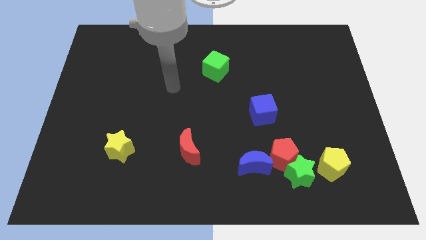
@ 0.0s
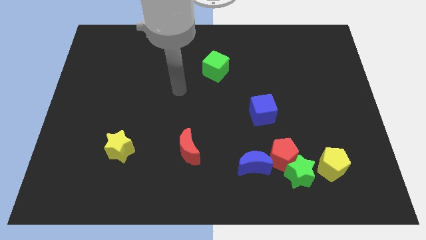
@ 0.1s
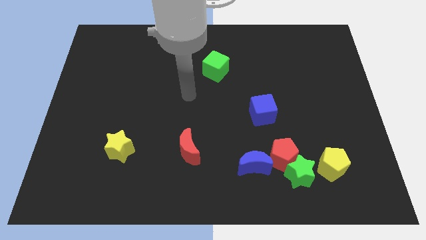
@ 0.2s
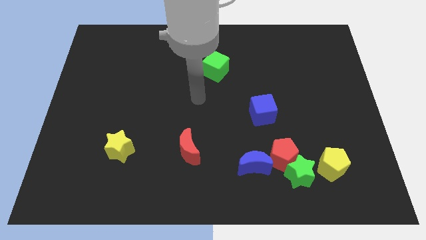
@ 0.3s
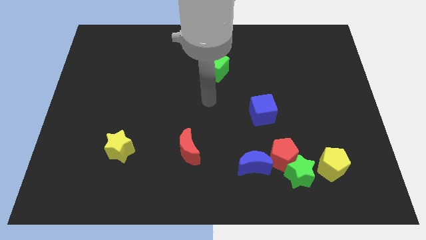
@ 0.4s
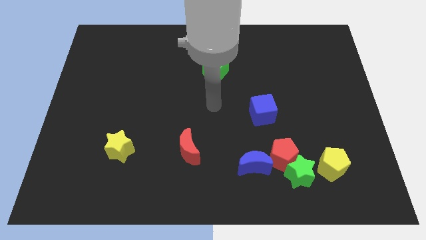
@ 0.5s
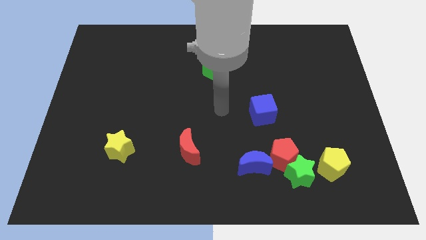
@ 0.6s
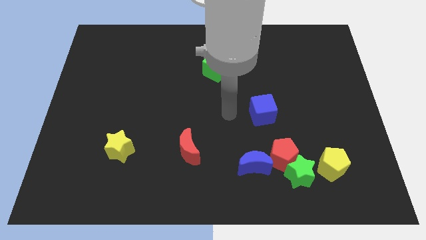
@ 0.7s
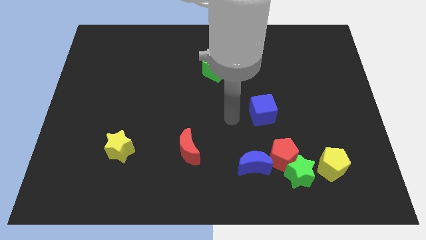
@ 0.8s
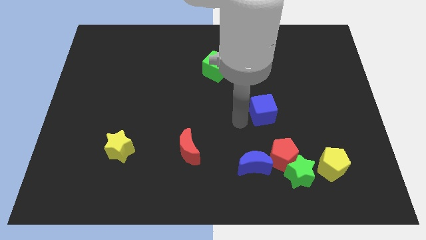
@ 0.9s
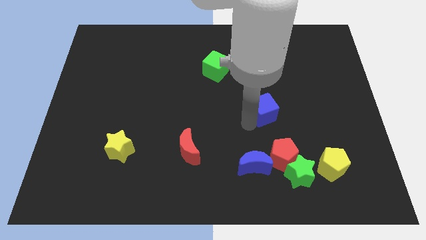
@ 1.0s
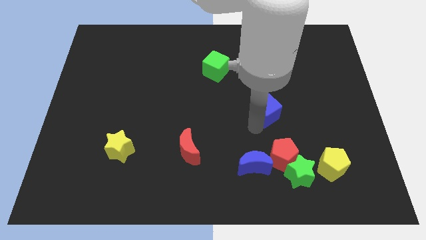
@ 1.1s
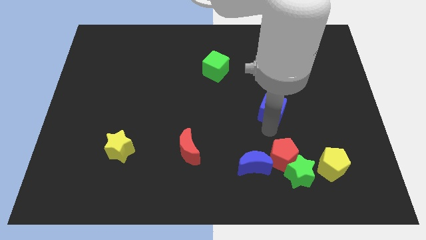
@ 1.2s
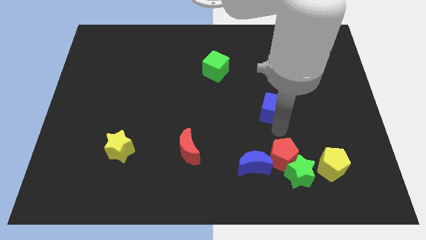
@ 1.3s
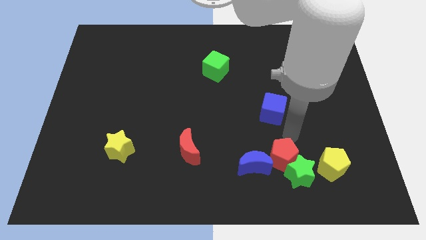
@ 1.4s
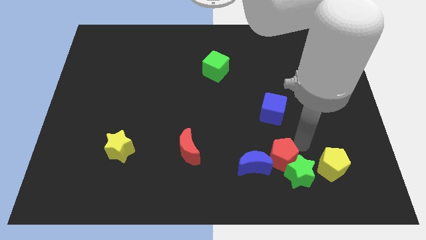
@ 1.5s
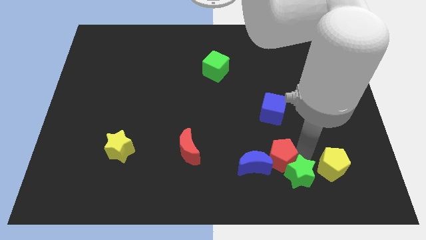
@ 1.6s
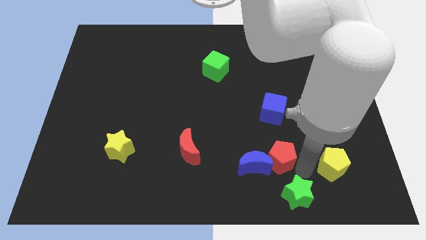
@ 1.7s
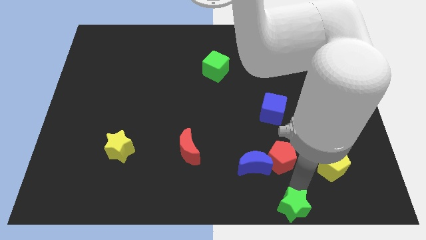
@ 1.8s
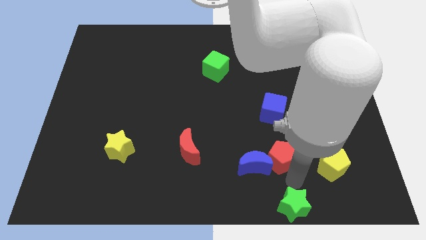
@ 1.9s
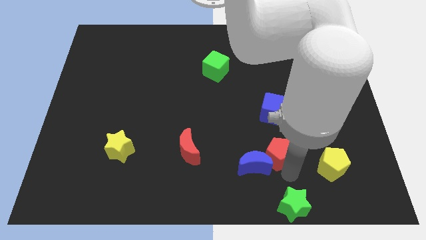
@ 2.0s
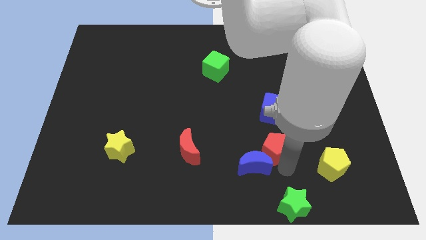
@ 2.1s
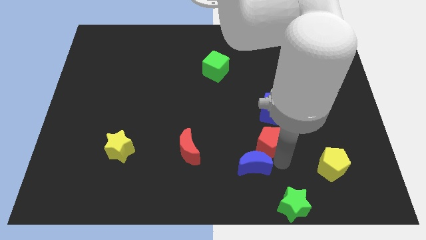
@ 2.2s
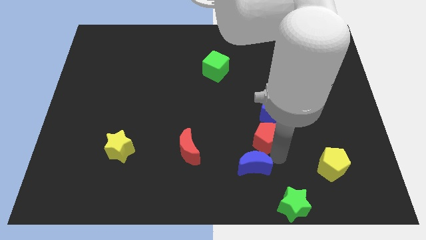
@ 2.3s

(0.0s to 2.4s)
separate the red pentagon from the group

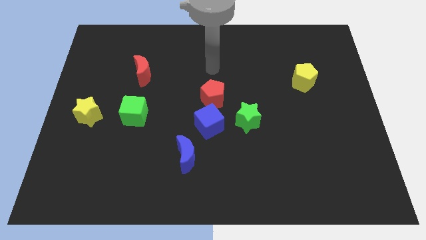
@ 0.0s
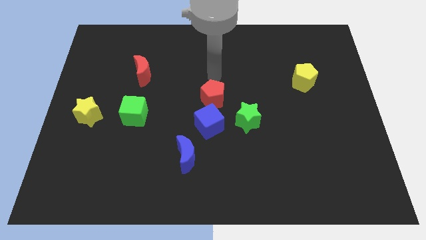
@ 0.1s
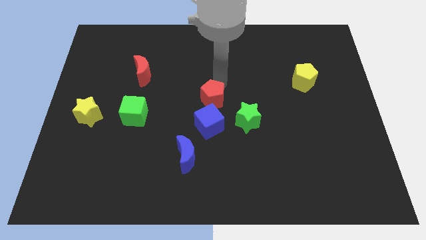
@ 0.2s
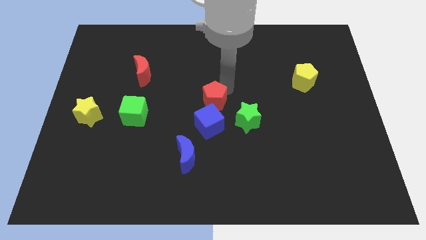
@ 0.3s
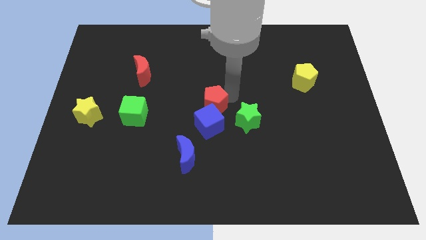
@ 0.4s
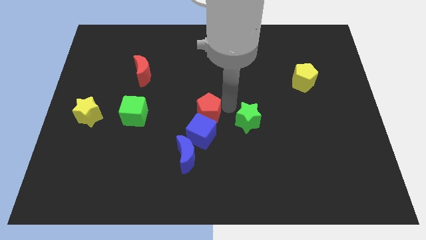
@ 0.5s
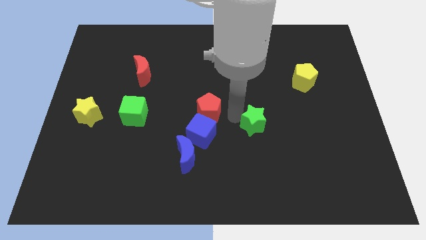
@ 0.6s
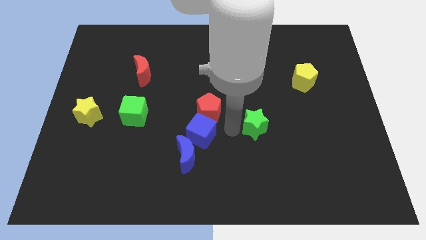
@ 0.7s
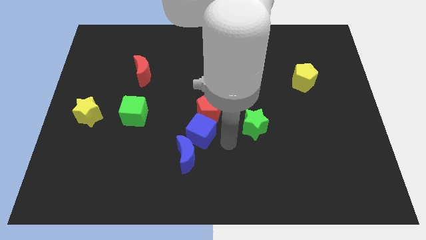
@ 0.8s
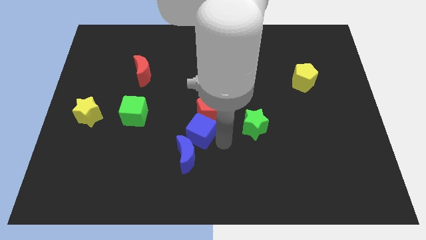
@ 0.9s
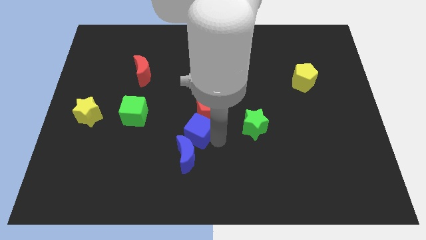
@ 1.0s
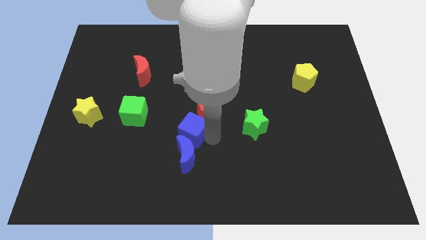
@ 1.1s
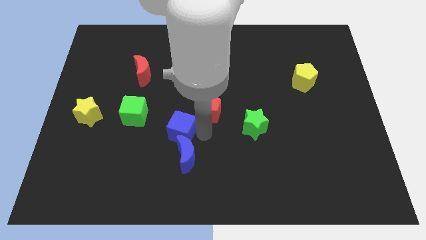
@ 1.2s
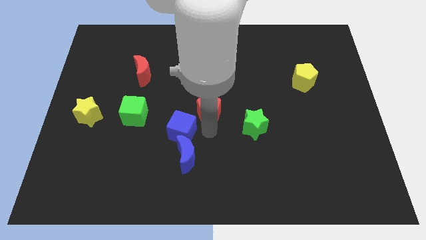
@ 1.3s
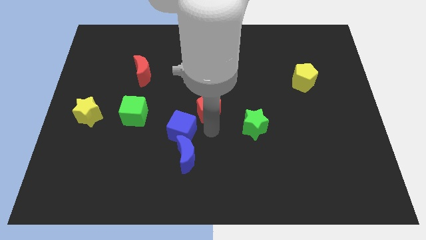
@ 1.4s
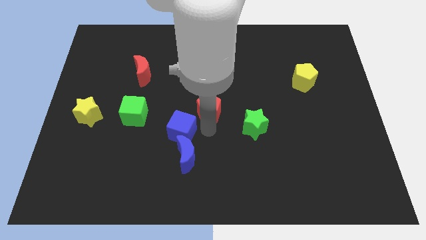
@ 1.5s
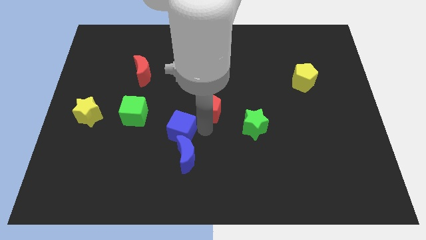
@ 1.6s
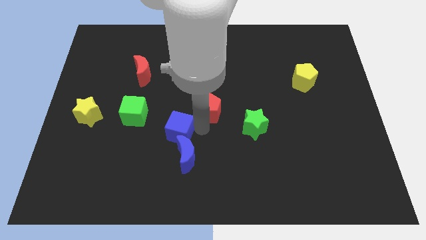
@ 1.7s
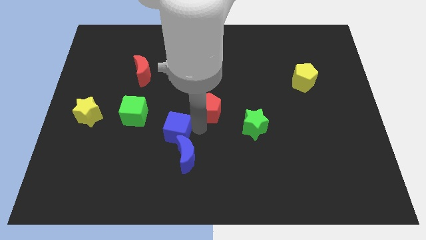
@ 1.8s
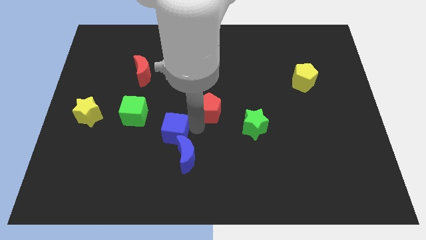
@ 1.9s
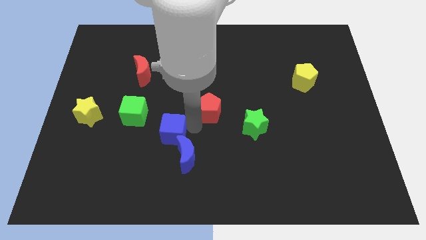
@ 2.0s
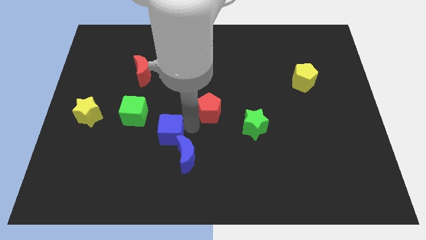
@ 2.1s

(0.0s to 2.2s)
separate the blue cube from the group of blocks

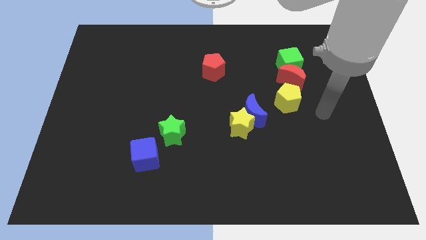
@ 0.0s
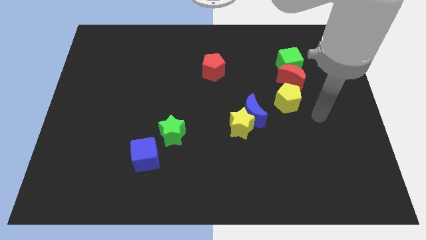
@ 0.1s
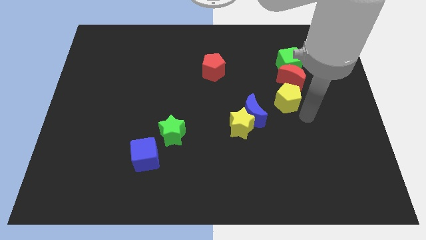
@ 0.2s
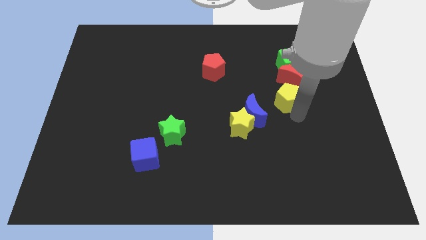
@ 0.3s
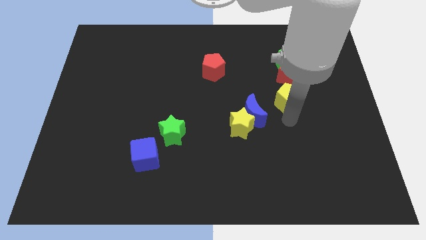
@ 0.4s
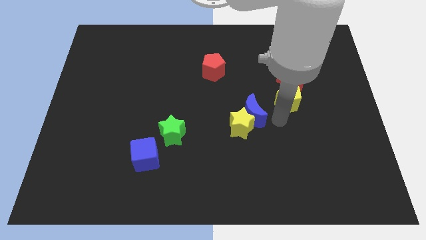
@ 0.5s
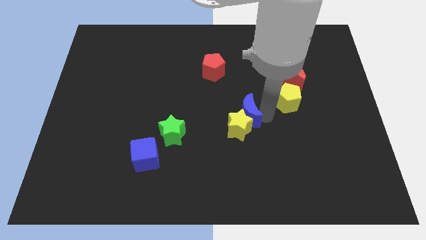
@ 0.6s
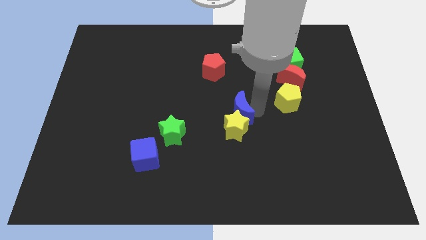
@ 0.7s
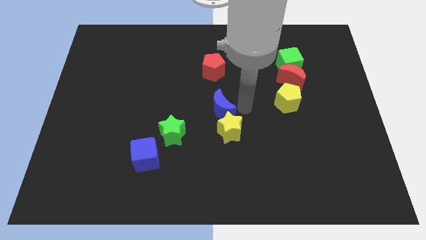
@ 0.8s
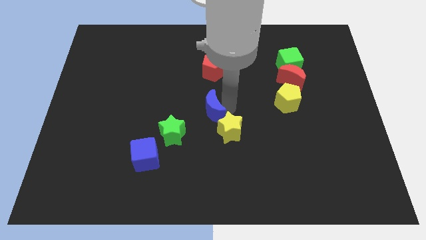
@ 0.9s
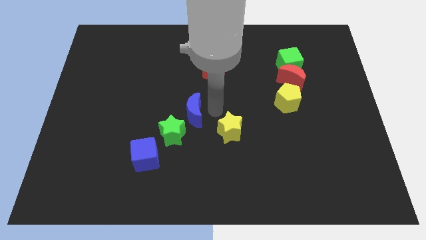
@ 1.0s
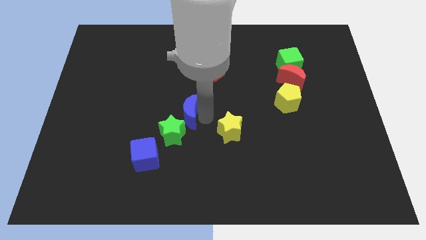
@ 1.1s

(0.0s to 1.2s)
pull the yellow star apart from the blue moon

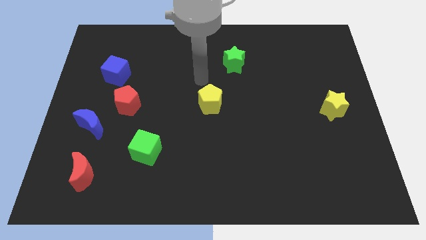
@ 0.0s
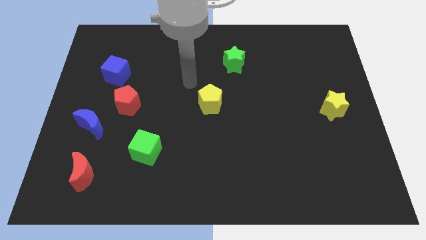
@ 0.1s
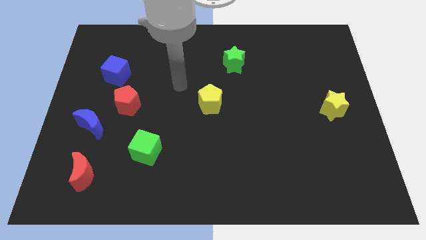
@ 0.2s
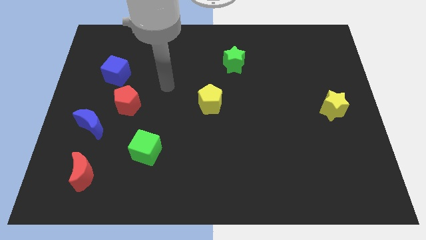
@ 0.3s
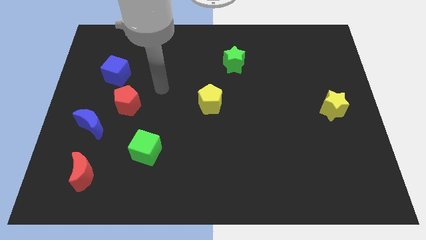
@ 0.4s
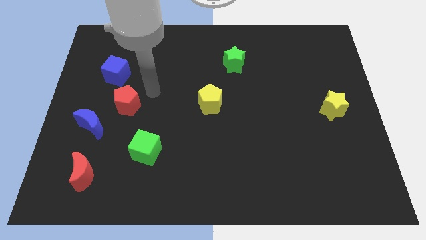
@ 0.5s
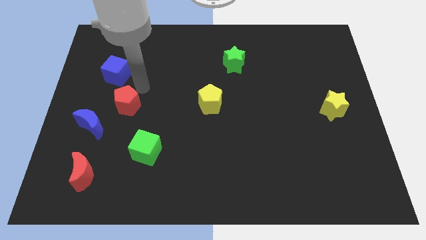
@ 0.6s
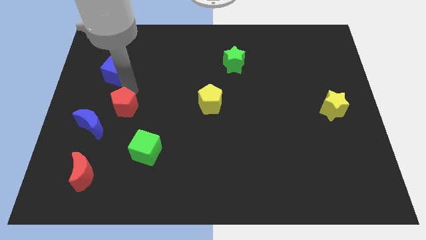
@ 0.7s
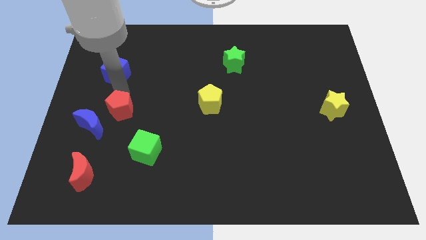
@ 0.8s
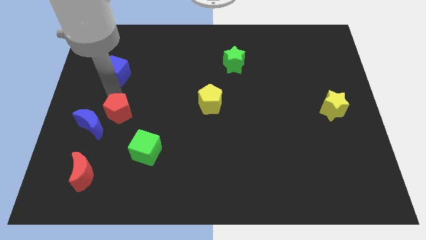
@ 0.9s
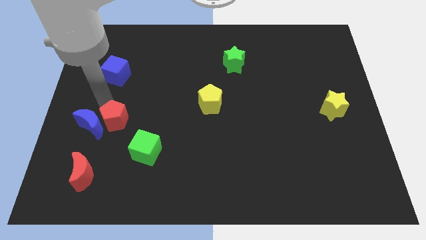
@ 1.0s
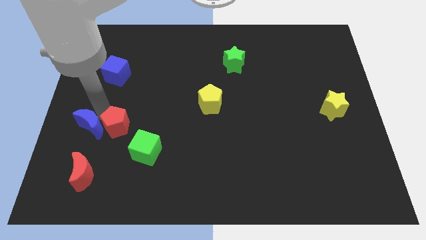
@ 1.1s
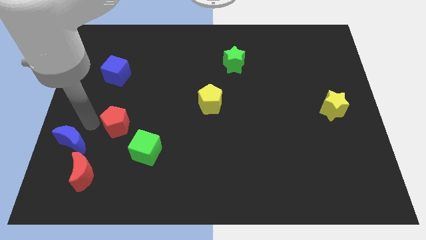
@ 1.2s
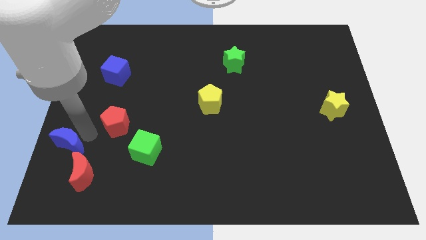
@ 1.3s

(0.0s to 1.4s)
pull the red pentagon apart from the blue moon

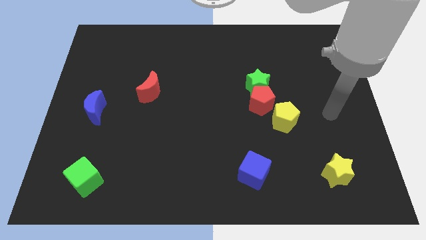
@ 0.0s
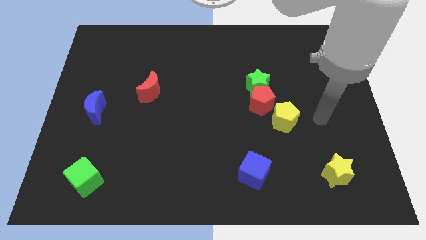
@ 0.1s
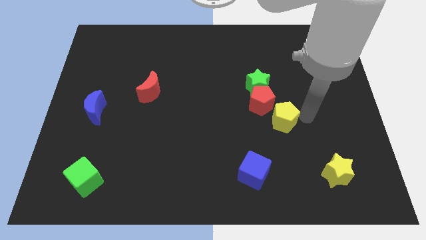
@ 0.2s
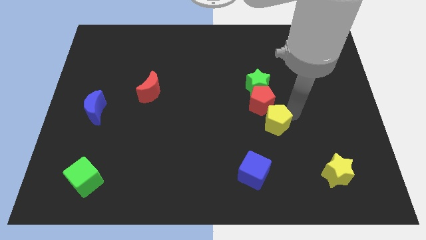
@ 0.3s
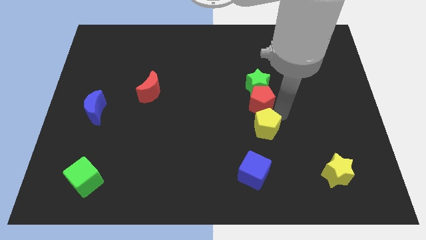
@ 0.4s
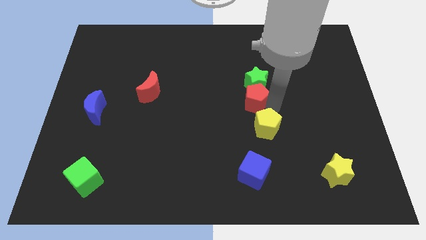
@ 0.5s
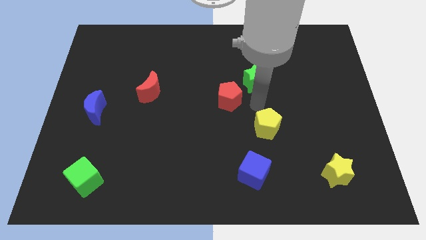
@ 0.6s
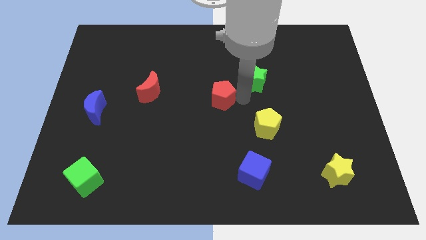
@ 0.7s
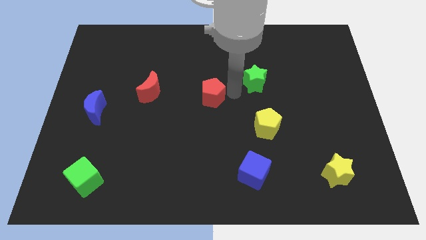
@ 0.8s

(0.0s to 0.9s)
separate the green star from the red pentagon

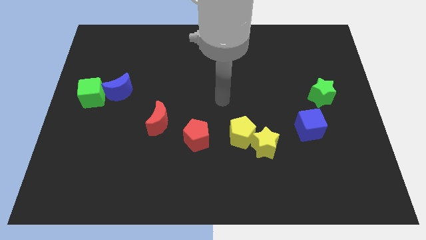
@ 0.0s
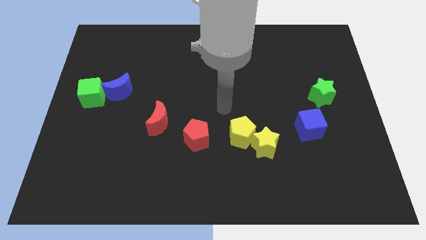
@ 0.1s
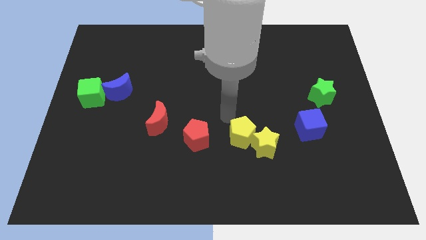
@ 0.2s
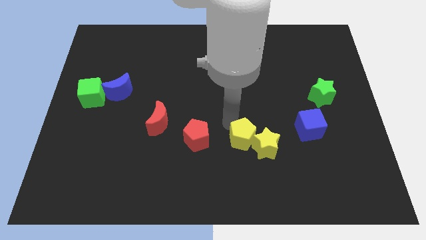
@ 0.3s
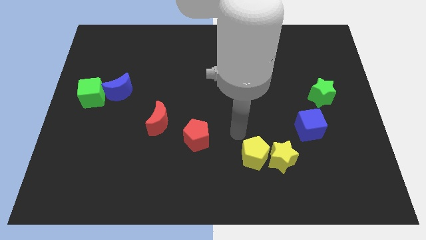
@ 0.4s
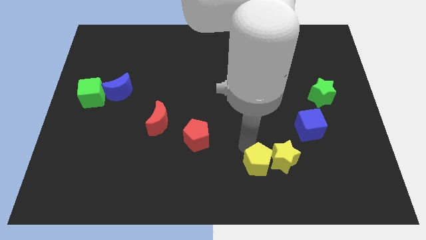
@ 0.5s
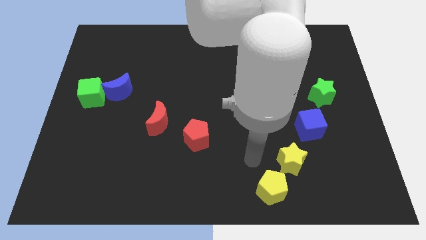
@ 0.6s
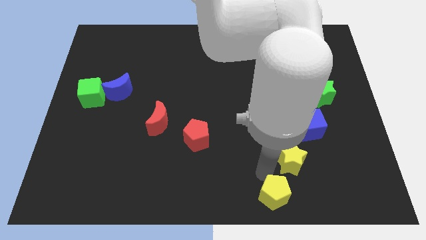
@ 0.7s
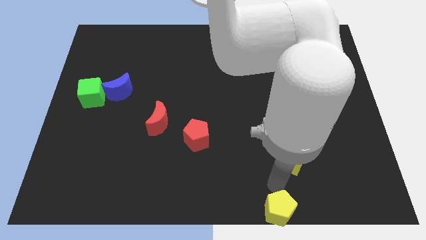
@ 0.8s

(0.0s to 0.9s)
separate the yellow star from the yellow pentagon

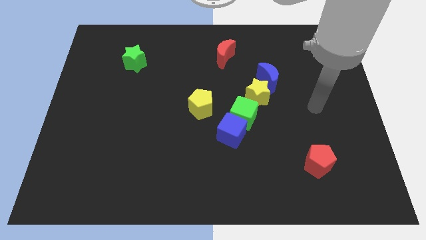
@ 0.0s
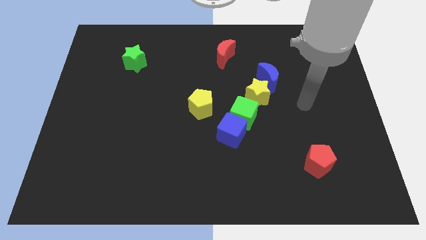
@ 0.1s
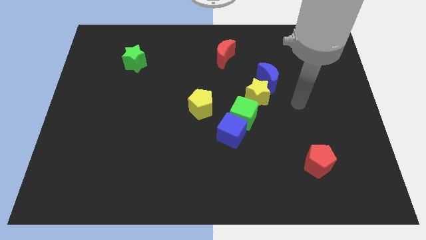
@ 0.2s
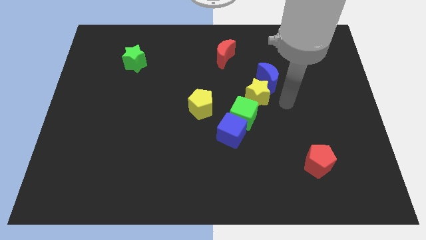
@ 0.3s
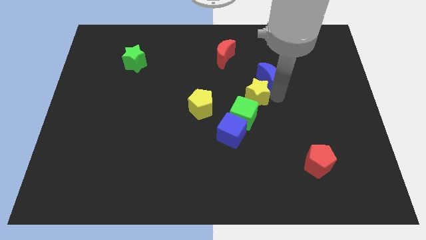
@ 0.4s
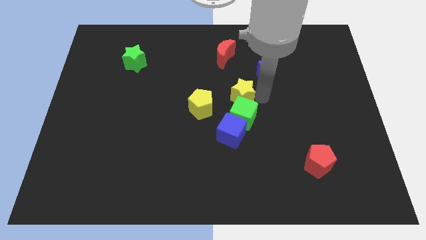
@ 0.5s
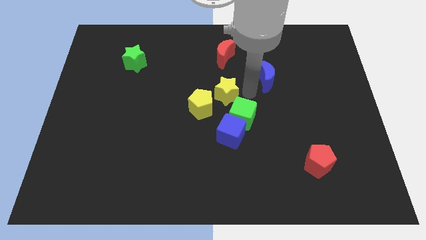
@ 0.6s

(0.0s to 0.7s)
pull the blue moon apart from the yellow star
